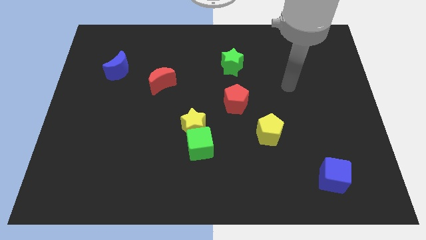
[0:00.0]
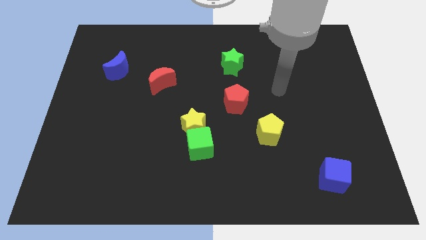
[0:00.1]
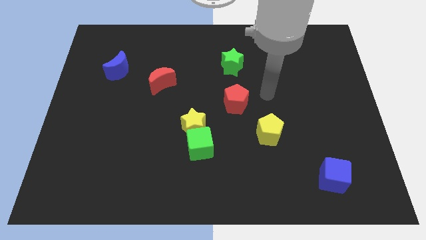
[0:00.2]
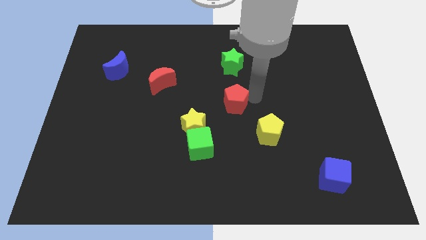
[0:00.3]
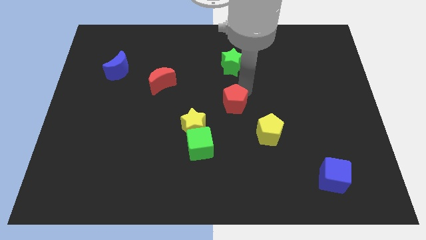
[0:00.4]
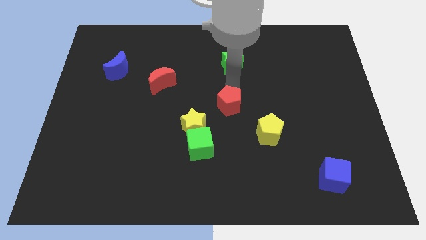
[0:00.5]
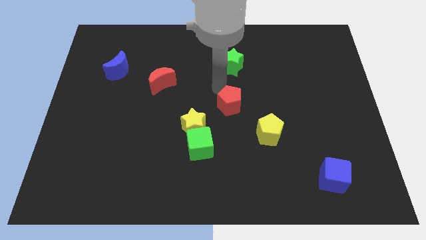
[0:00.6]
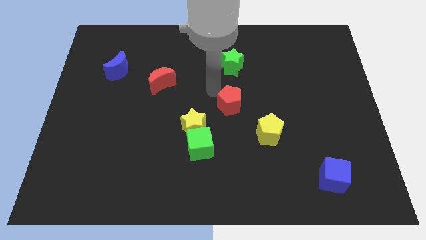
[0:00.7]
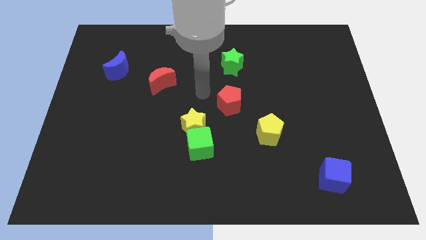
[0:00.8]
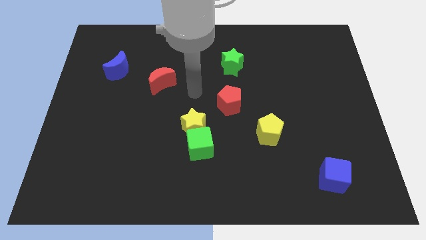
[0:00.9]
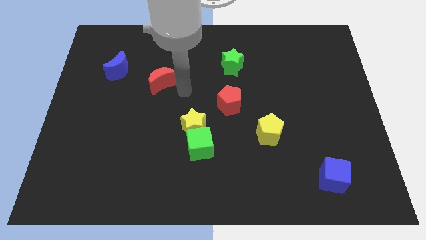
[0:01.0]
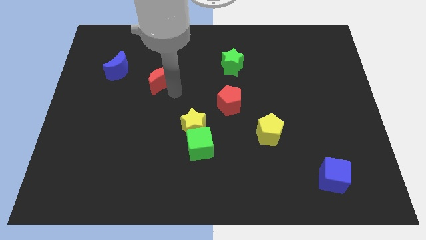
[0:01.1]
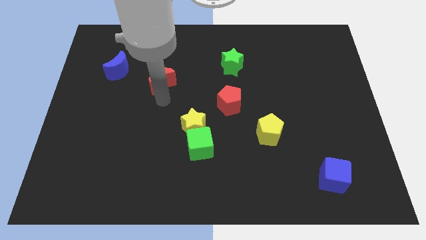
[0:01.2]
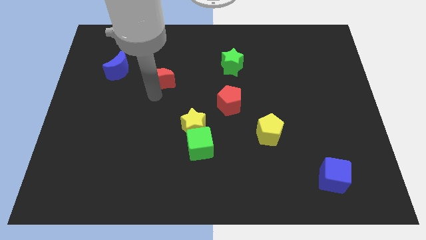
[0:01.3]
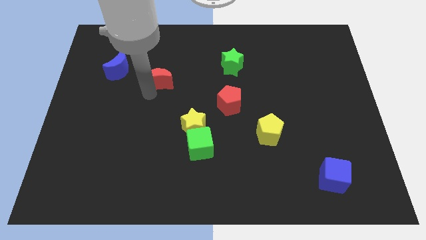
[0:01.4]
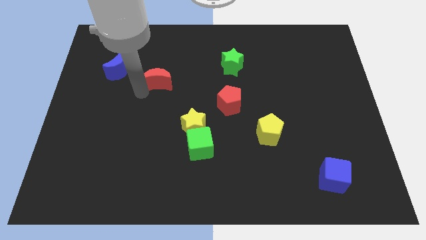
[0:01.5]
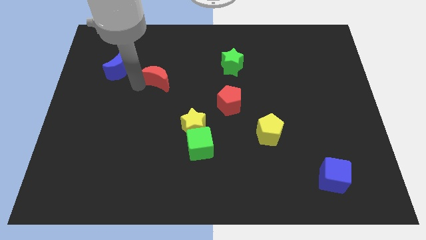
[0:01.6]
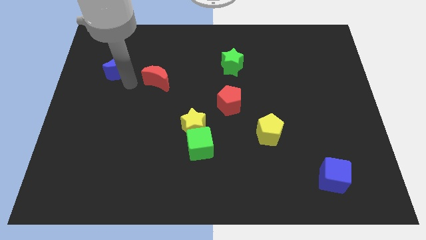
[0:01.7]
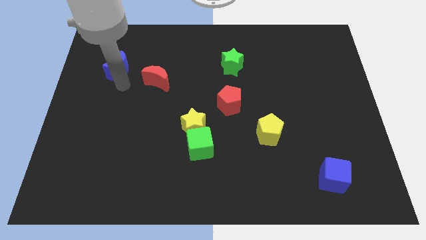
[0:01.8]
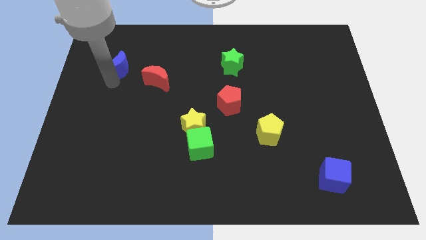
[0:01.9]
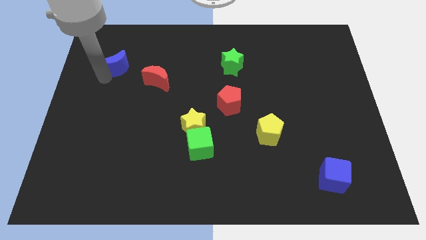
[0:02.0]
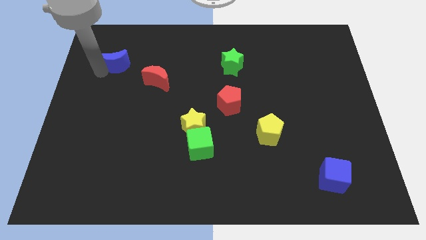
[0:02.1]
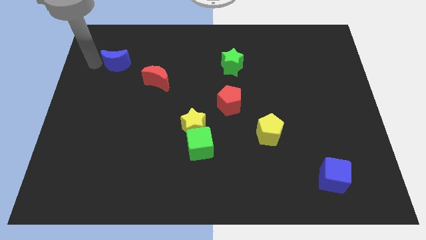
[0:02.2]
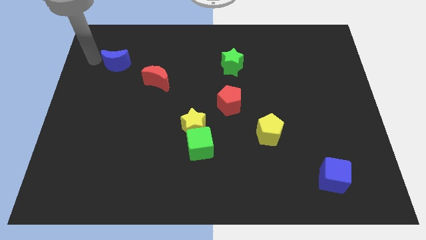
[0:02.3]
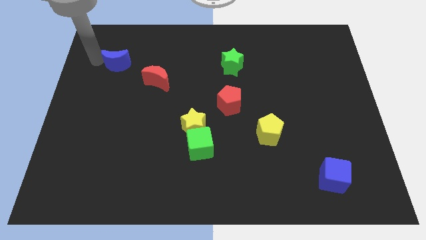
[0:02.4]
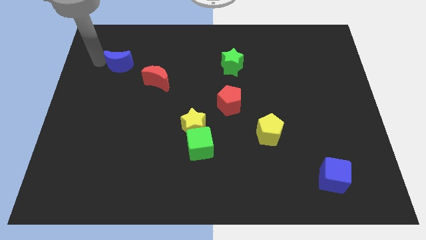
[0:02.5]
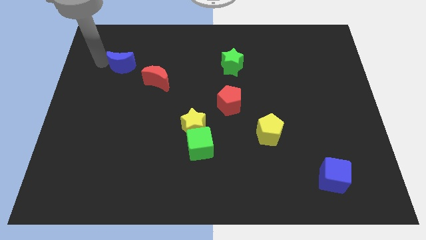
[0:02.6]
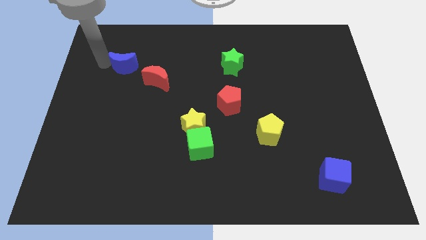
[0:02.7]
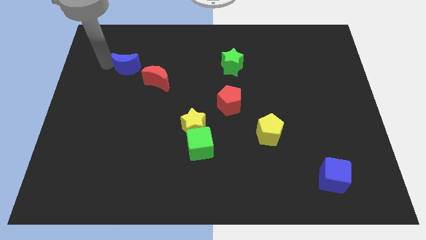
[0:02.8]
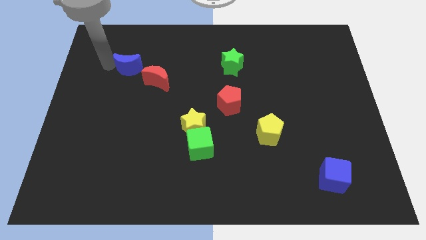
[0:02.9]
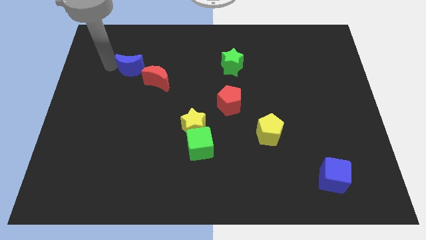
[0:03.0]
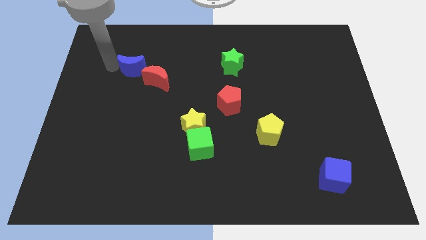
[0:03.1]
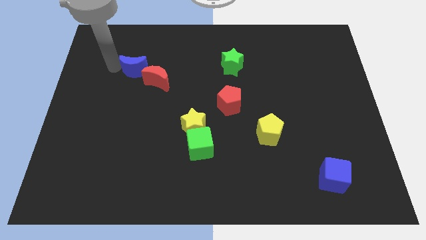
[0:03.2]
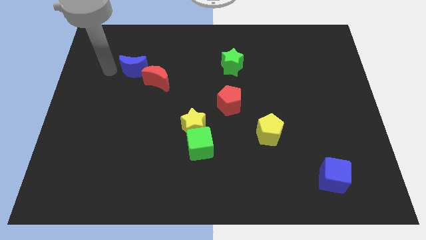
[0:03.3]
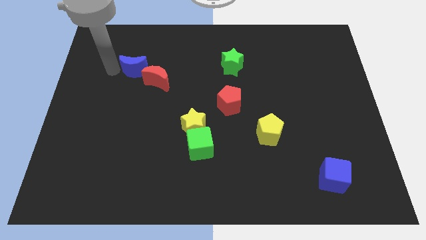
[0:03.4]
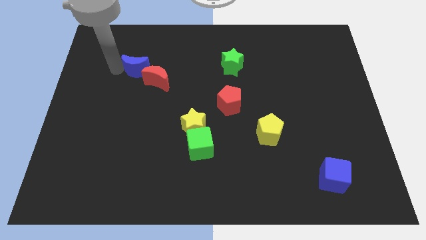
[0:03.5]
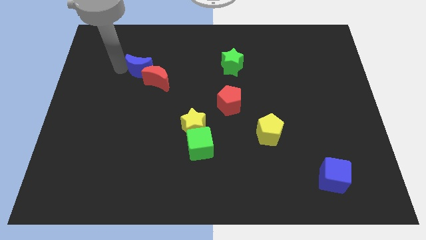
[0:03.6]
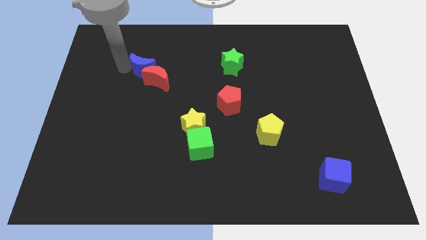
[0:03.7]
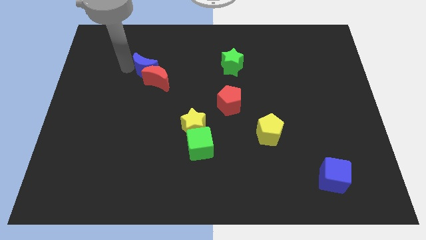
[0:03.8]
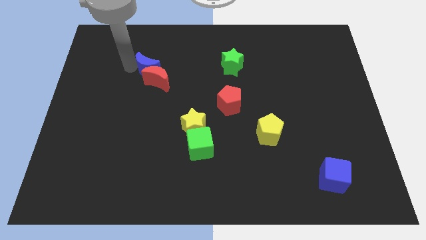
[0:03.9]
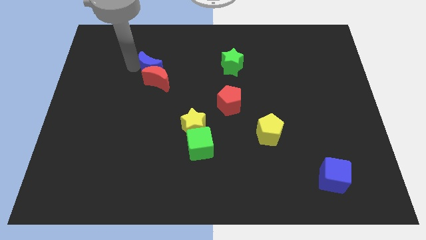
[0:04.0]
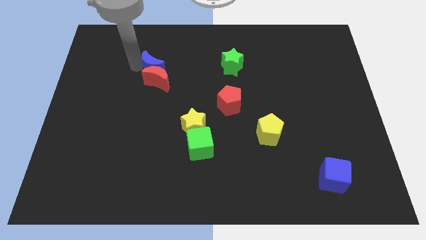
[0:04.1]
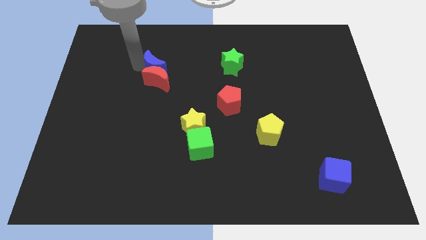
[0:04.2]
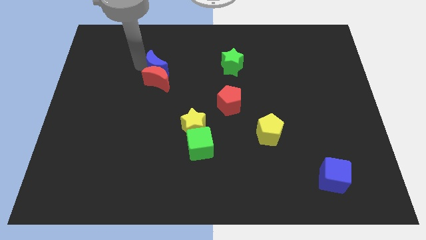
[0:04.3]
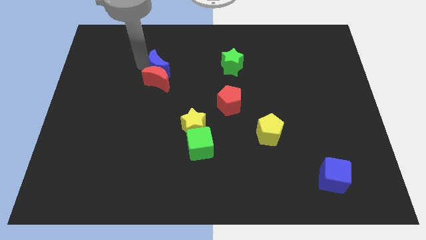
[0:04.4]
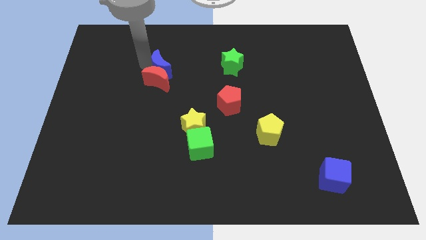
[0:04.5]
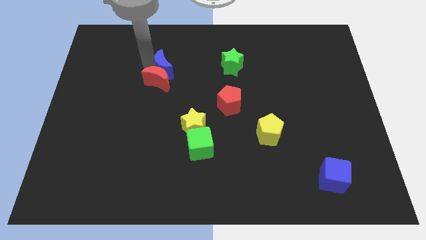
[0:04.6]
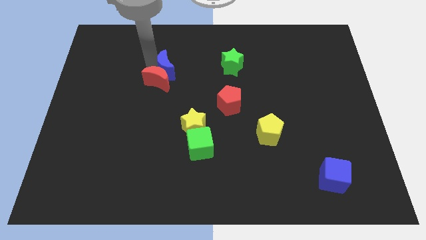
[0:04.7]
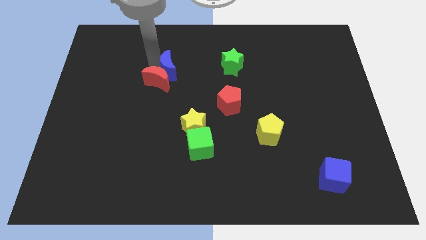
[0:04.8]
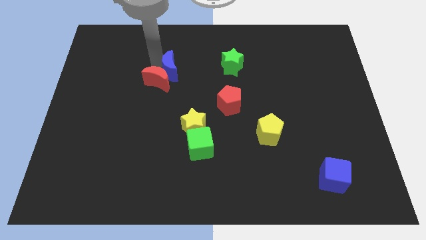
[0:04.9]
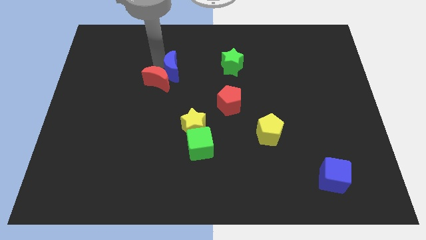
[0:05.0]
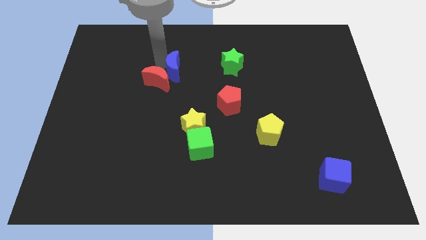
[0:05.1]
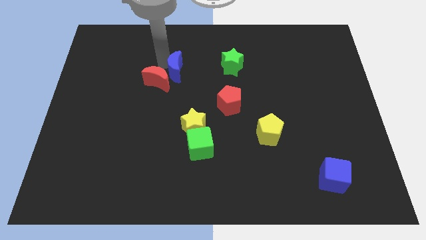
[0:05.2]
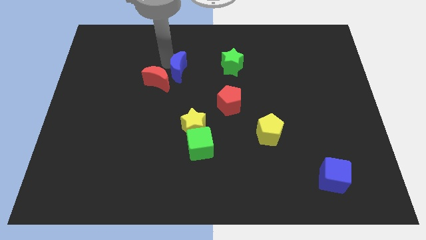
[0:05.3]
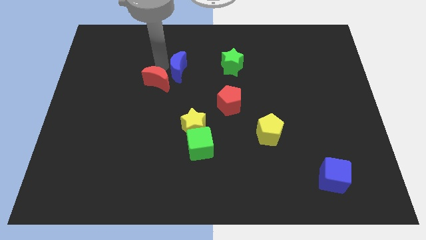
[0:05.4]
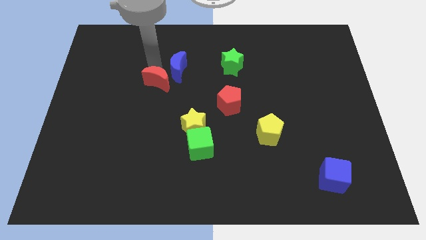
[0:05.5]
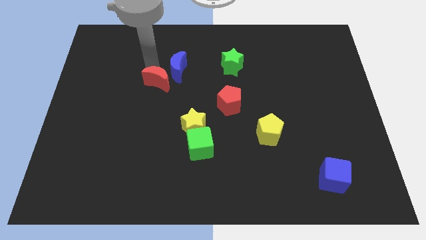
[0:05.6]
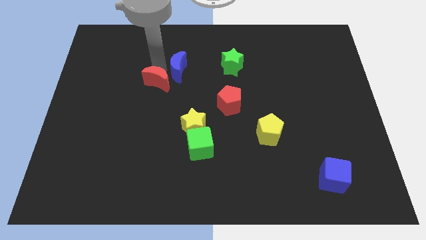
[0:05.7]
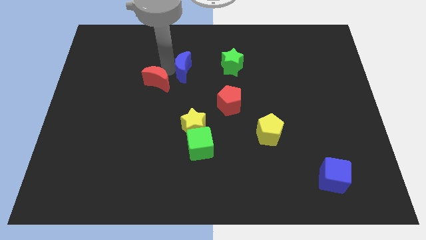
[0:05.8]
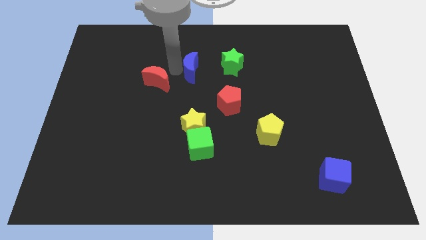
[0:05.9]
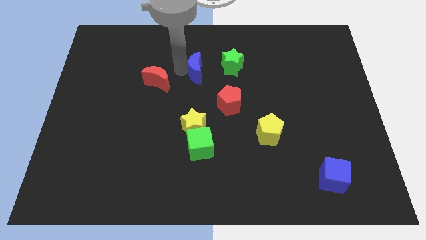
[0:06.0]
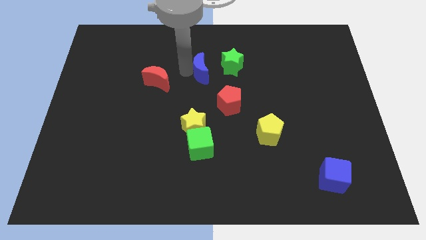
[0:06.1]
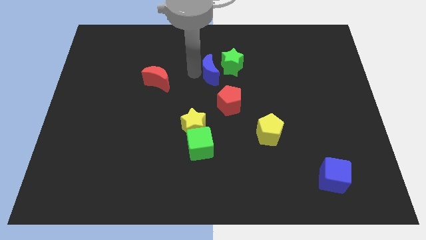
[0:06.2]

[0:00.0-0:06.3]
push the blue moon close to the green star

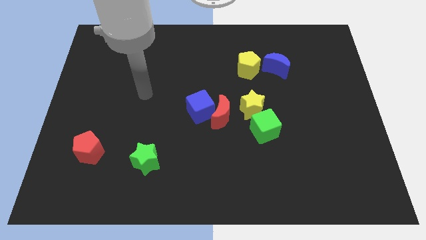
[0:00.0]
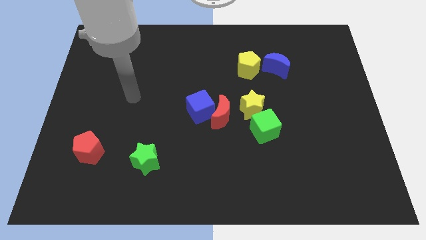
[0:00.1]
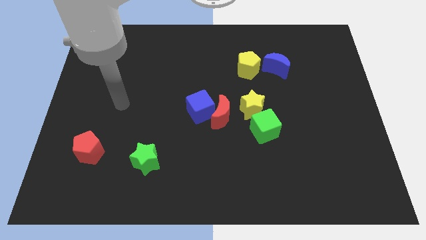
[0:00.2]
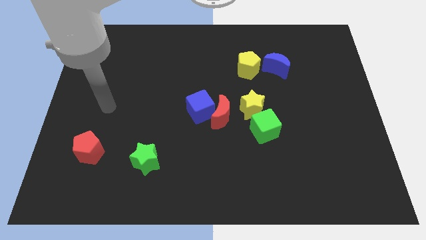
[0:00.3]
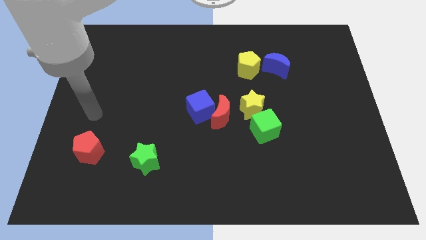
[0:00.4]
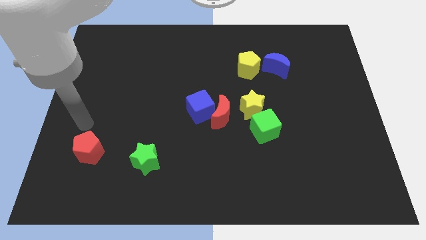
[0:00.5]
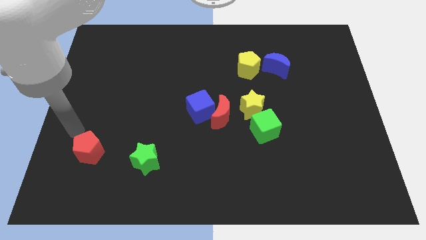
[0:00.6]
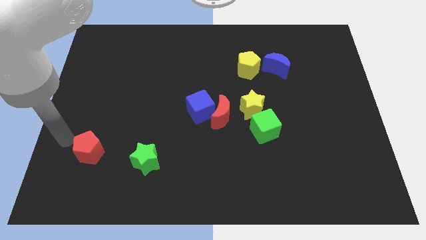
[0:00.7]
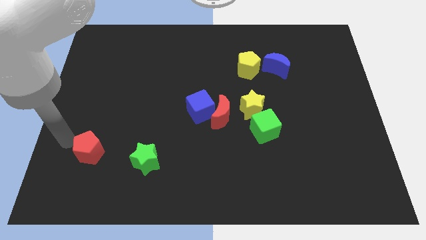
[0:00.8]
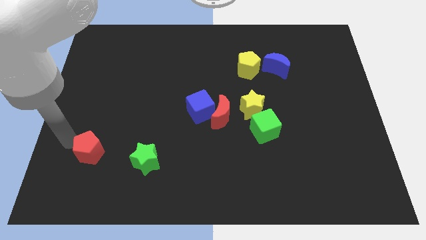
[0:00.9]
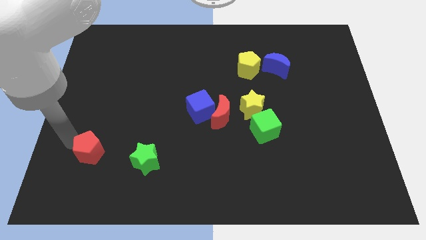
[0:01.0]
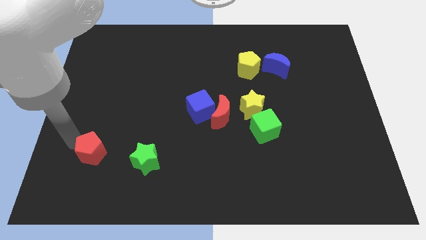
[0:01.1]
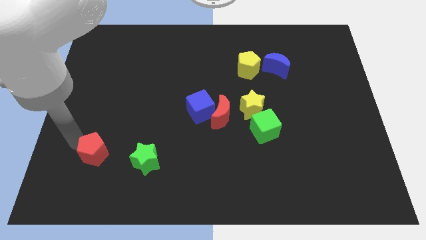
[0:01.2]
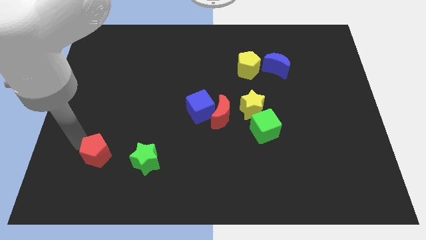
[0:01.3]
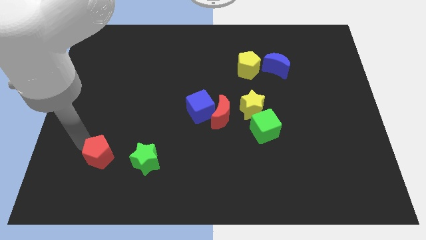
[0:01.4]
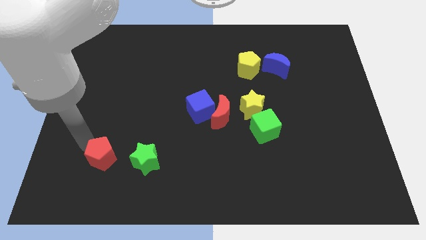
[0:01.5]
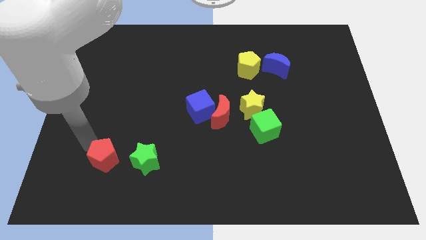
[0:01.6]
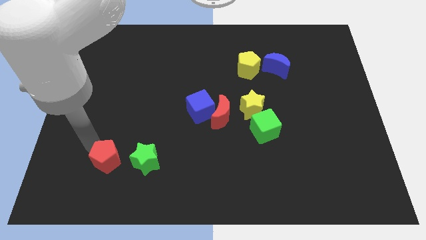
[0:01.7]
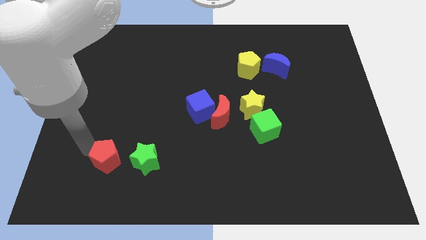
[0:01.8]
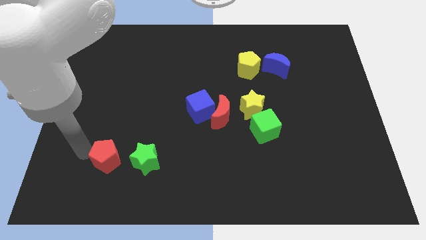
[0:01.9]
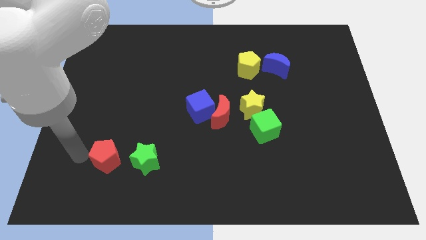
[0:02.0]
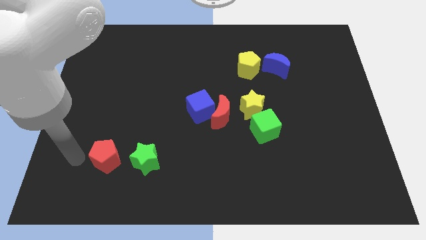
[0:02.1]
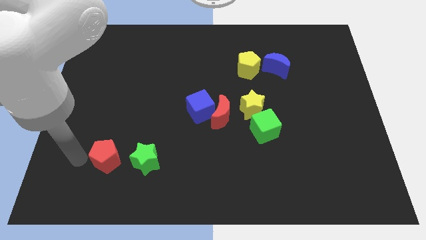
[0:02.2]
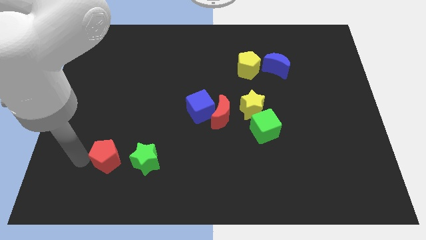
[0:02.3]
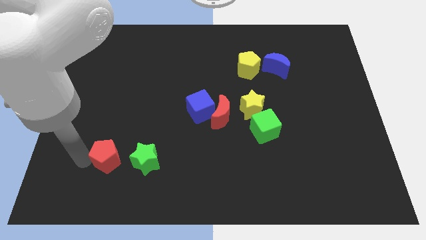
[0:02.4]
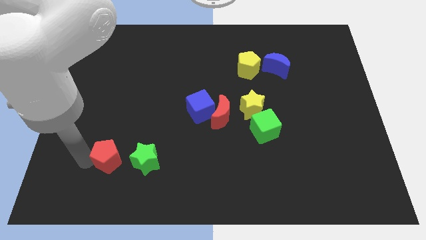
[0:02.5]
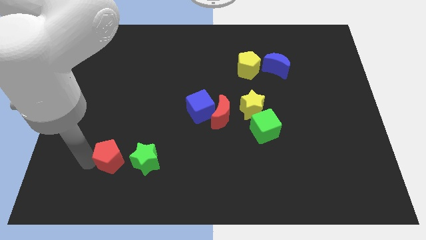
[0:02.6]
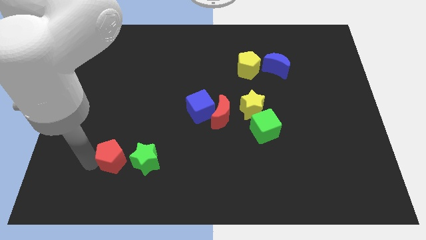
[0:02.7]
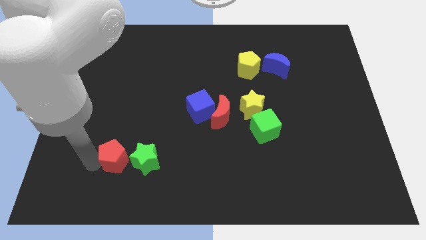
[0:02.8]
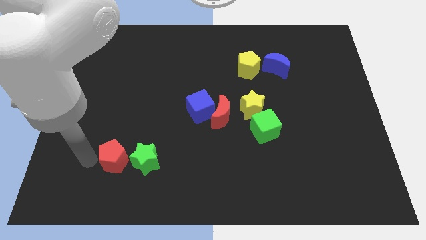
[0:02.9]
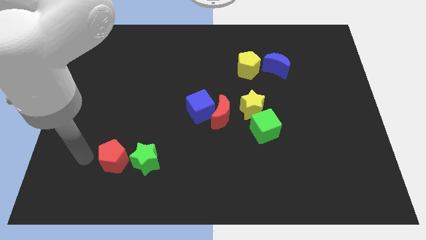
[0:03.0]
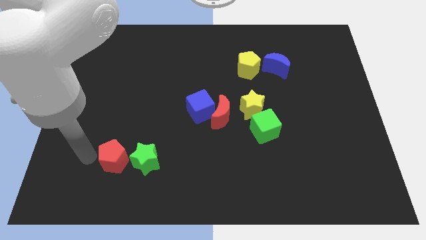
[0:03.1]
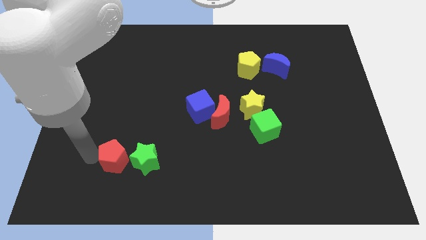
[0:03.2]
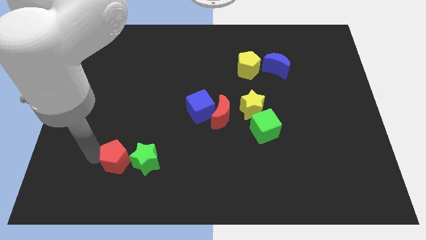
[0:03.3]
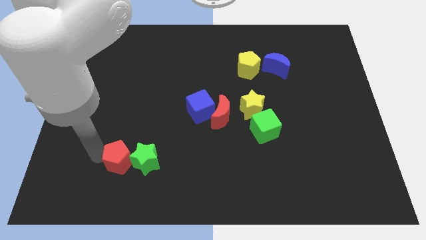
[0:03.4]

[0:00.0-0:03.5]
slide the red pentagon towards the green star
